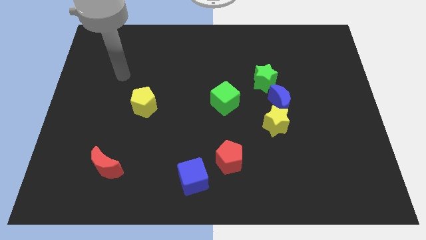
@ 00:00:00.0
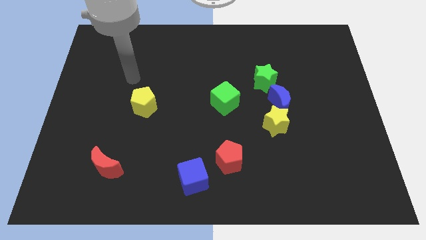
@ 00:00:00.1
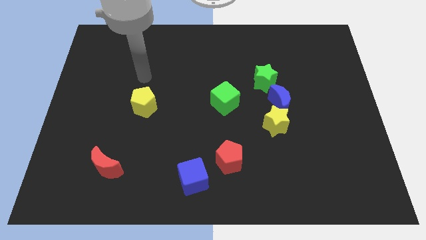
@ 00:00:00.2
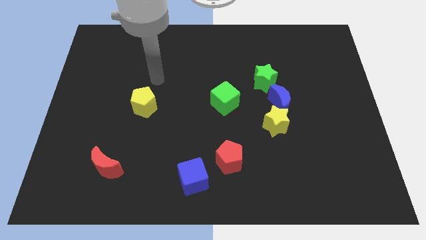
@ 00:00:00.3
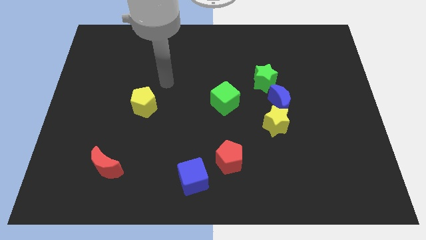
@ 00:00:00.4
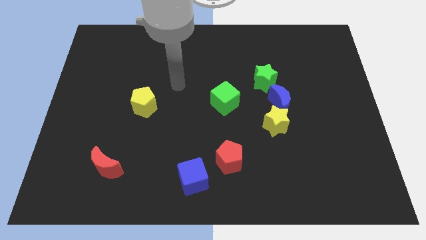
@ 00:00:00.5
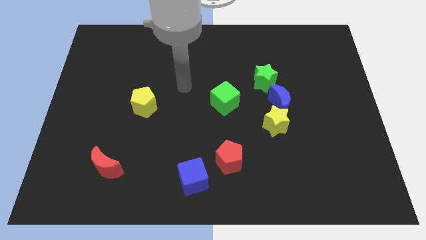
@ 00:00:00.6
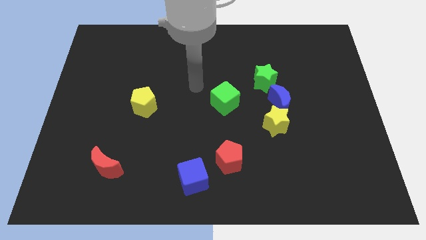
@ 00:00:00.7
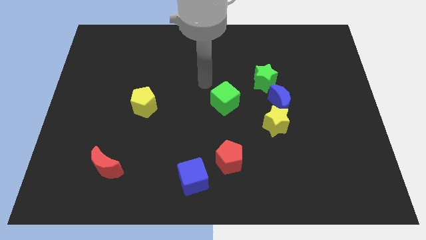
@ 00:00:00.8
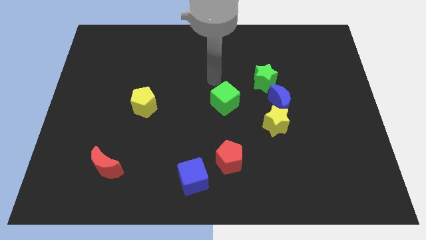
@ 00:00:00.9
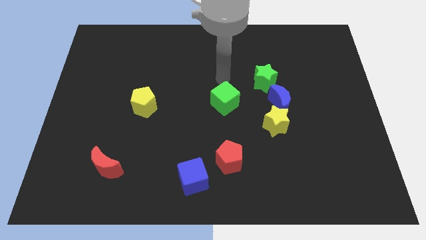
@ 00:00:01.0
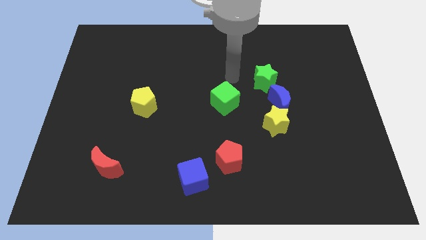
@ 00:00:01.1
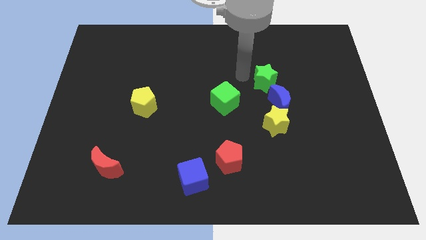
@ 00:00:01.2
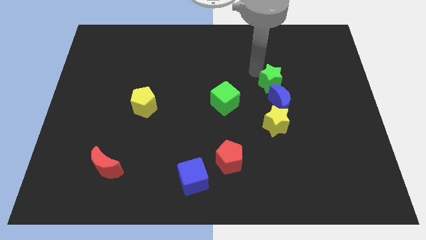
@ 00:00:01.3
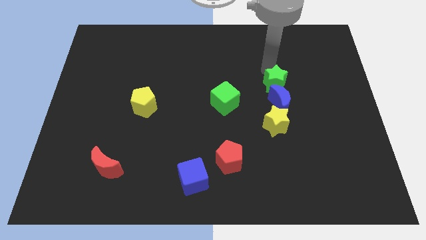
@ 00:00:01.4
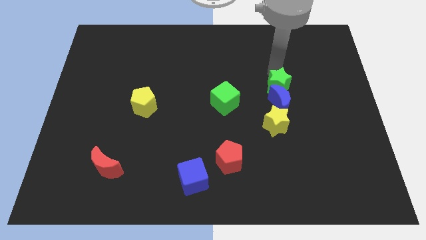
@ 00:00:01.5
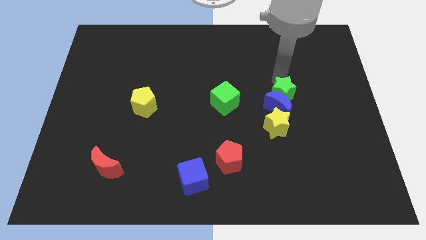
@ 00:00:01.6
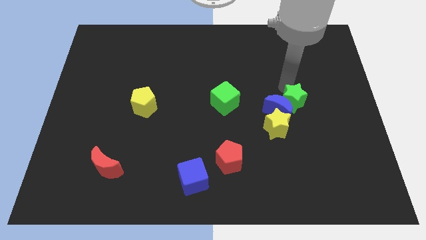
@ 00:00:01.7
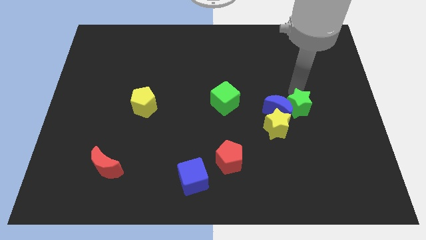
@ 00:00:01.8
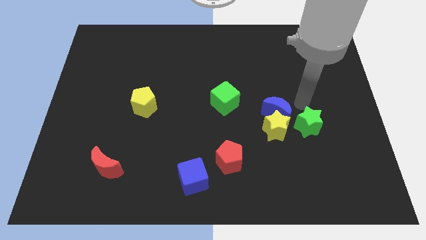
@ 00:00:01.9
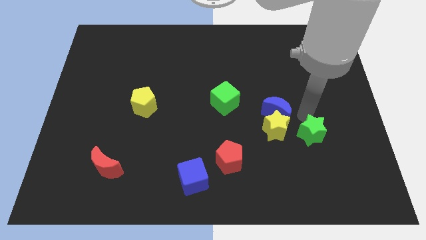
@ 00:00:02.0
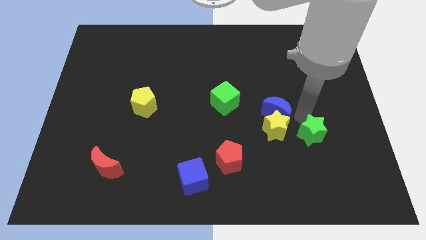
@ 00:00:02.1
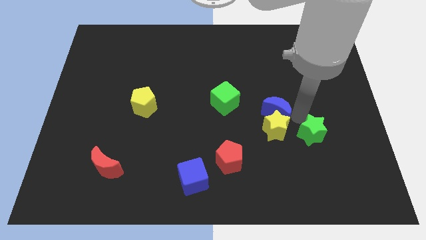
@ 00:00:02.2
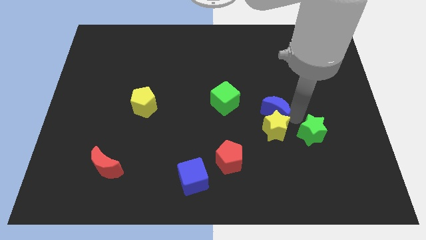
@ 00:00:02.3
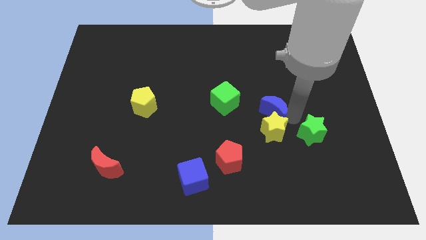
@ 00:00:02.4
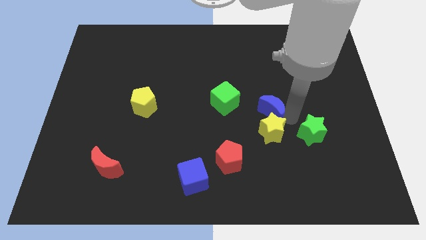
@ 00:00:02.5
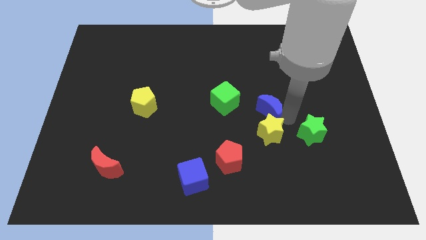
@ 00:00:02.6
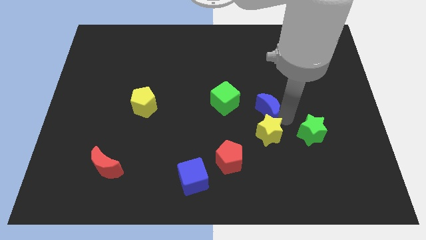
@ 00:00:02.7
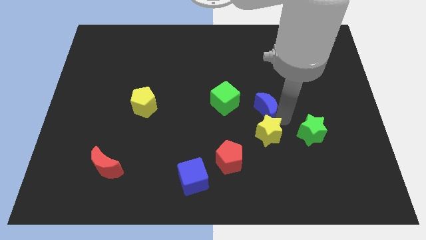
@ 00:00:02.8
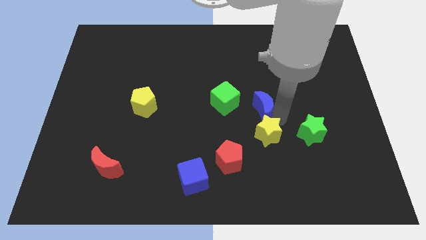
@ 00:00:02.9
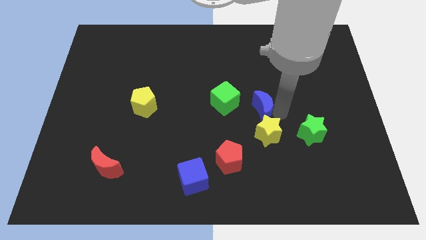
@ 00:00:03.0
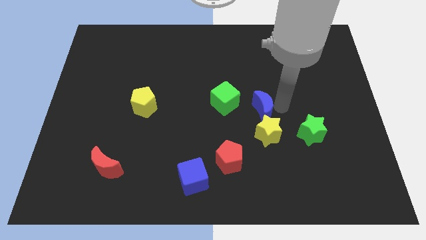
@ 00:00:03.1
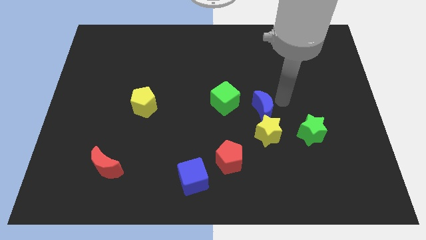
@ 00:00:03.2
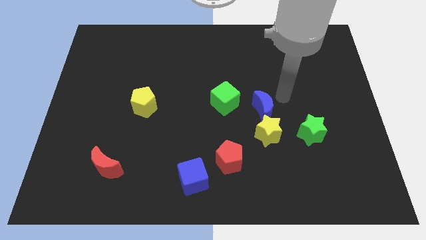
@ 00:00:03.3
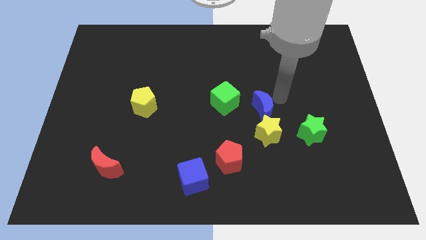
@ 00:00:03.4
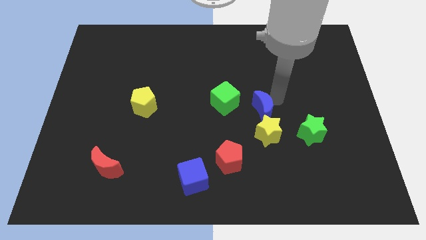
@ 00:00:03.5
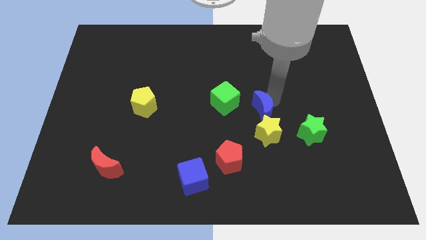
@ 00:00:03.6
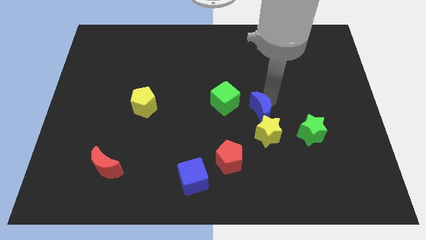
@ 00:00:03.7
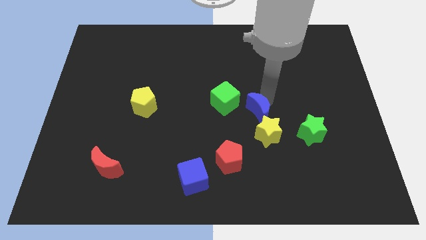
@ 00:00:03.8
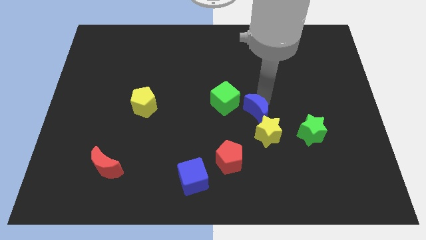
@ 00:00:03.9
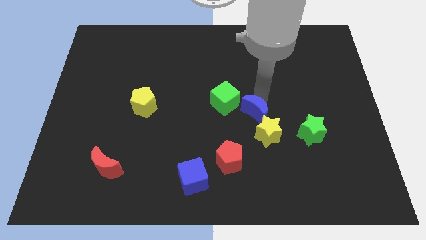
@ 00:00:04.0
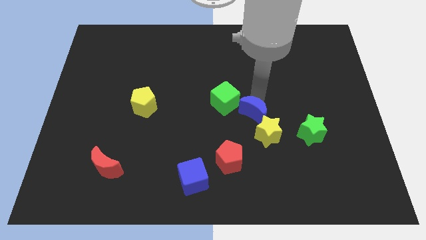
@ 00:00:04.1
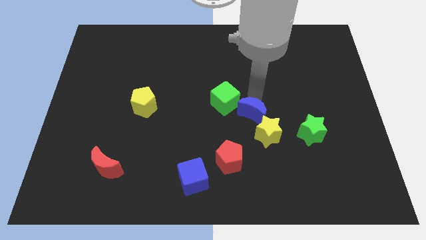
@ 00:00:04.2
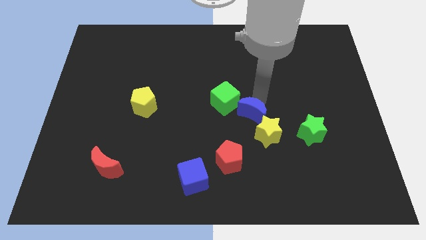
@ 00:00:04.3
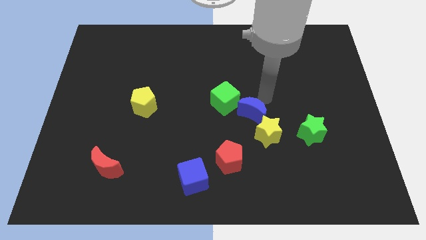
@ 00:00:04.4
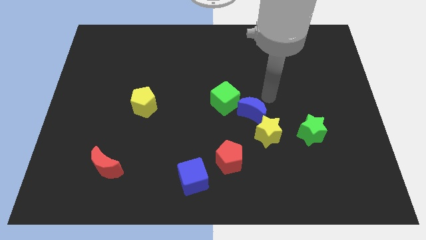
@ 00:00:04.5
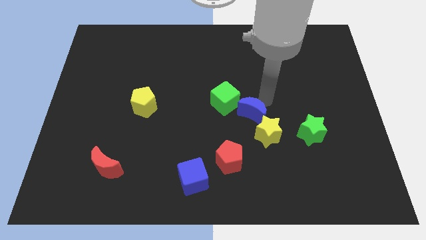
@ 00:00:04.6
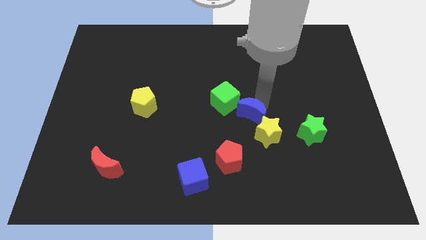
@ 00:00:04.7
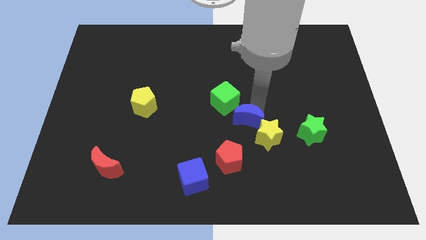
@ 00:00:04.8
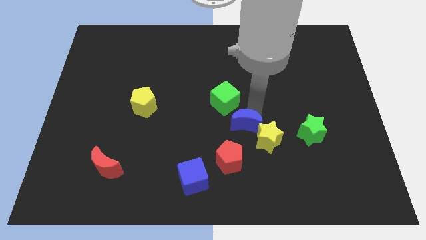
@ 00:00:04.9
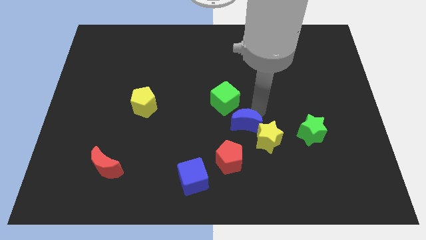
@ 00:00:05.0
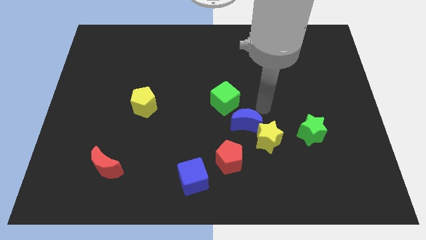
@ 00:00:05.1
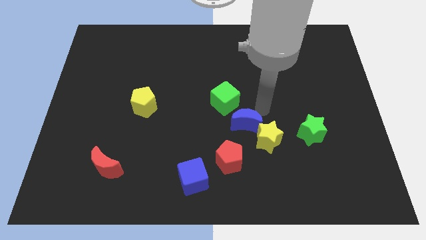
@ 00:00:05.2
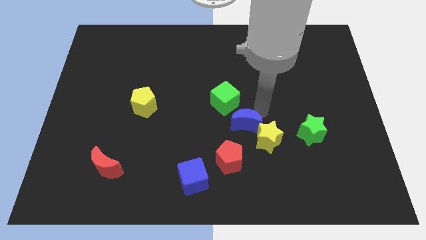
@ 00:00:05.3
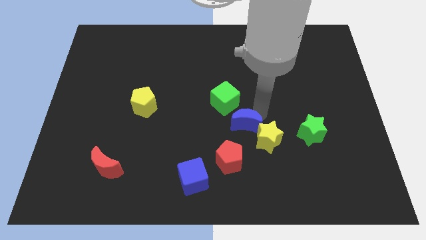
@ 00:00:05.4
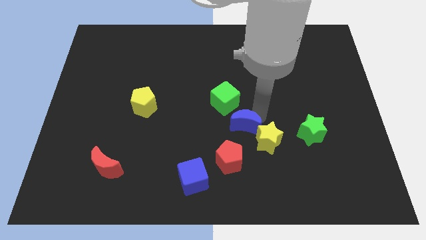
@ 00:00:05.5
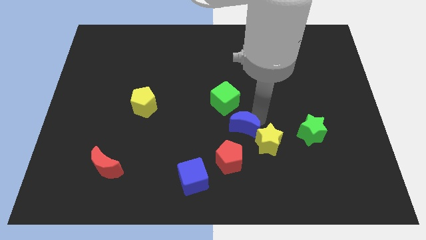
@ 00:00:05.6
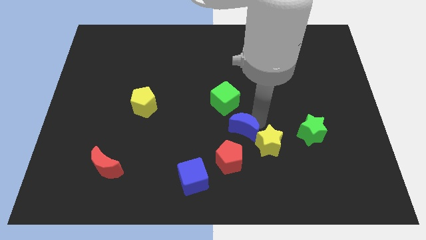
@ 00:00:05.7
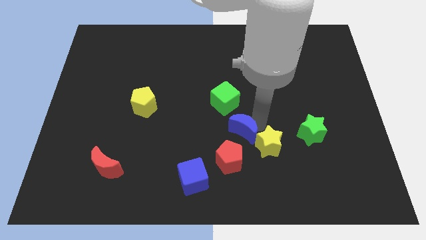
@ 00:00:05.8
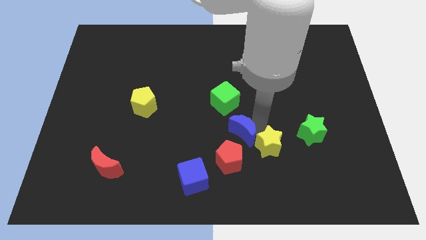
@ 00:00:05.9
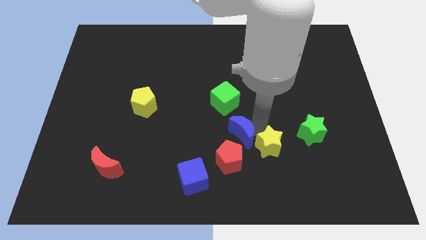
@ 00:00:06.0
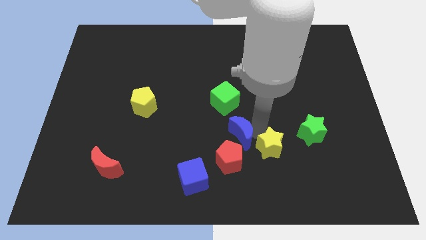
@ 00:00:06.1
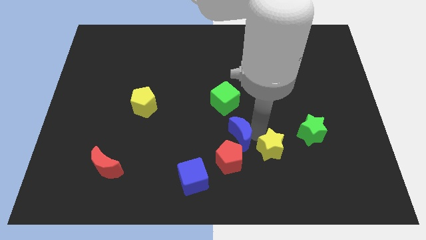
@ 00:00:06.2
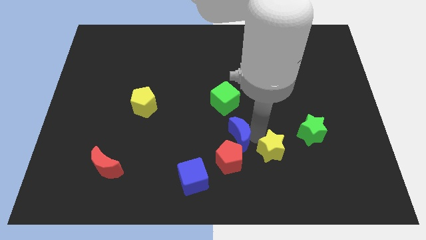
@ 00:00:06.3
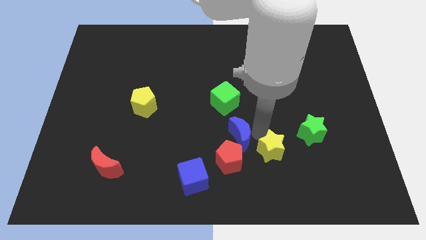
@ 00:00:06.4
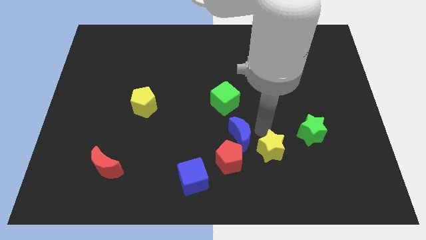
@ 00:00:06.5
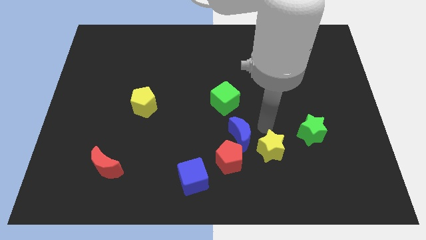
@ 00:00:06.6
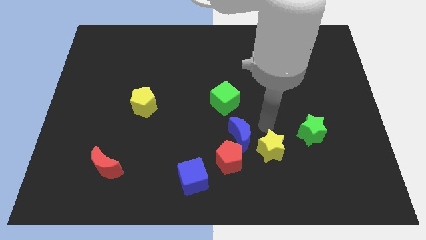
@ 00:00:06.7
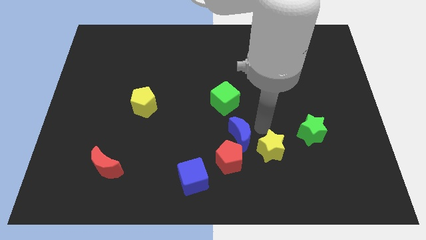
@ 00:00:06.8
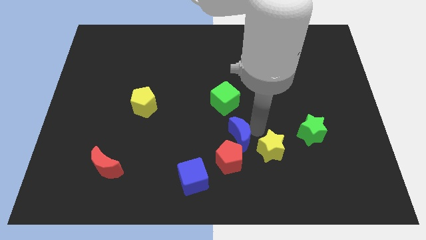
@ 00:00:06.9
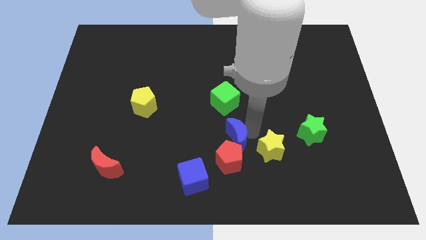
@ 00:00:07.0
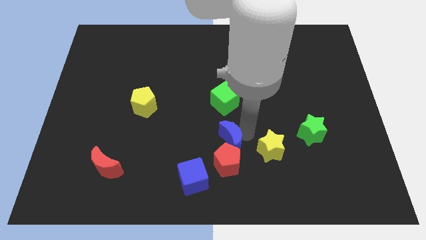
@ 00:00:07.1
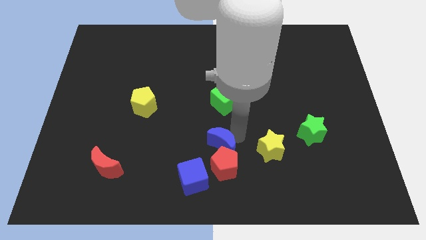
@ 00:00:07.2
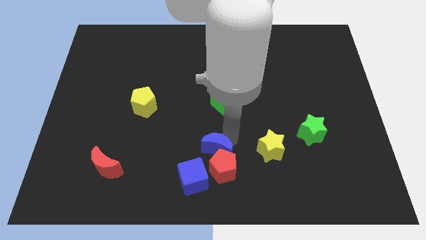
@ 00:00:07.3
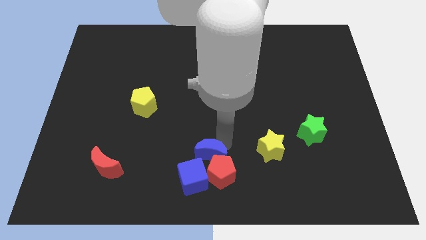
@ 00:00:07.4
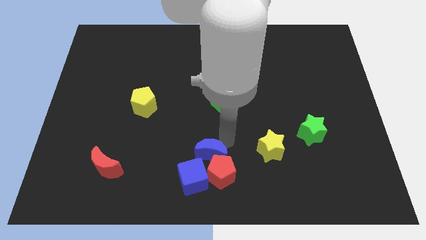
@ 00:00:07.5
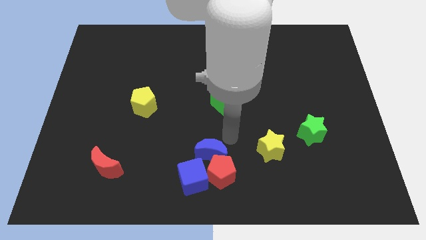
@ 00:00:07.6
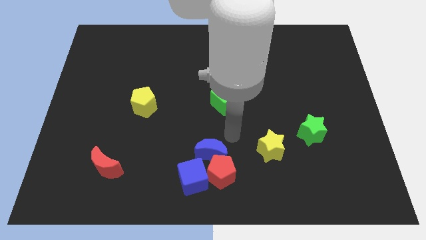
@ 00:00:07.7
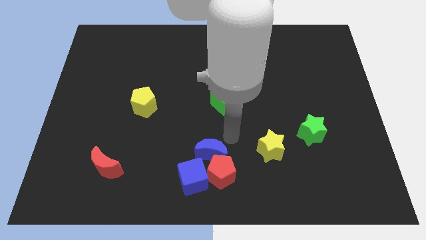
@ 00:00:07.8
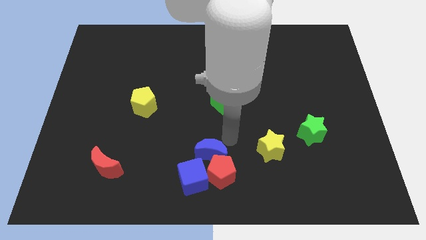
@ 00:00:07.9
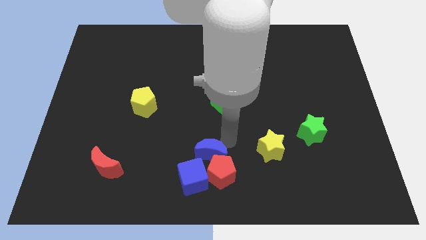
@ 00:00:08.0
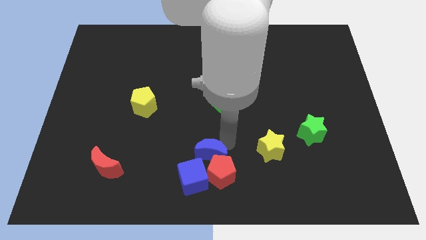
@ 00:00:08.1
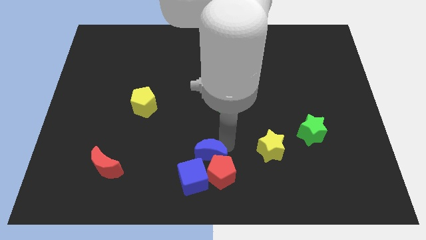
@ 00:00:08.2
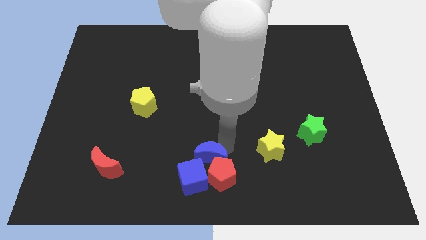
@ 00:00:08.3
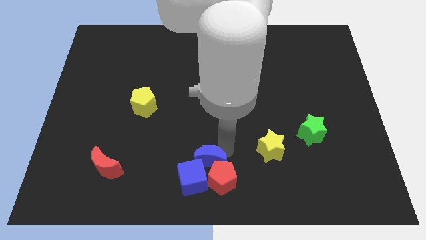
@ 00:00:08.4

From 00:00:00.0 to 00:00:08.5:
put the blue moon next to the blue cube
